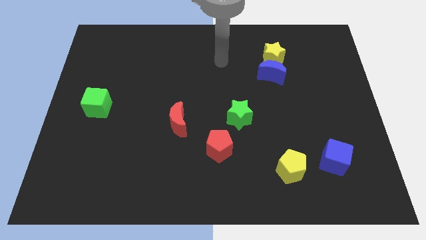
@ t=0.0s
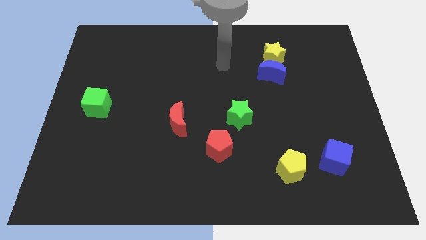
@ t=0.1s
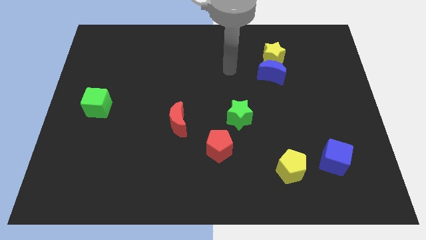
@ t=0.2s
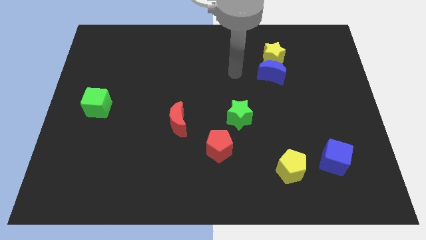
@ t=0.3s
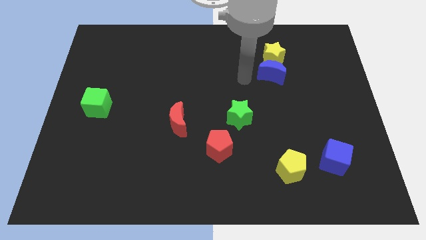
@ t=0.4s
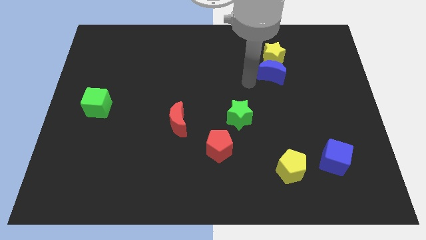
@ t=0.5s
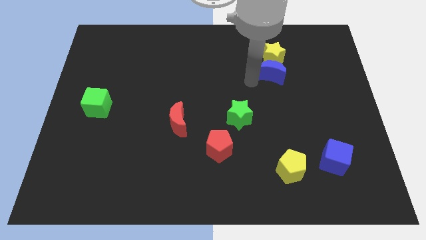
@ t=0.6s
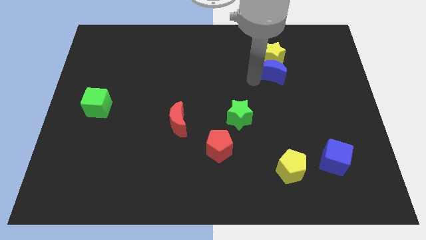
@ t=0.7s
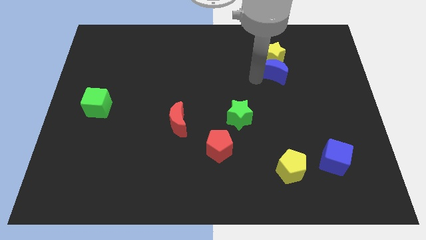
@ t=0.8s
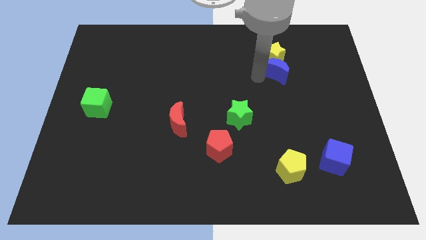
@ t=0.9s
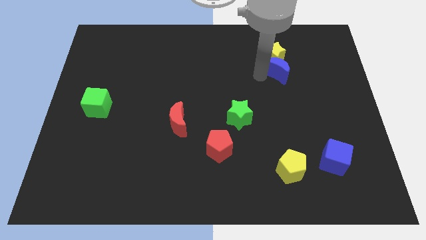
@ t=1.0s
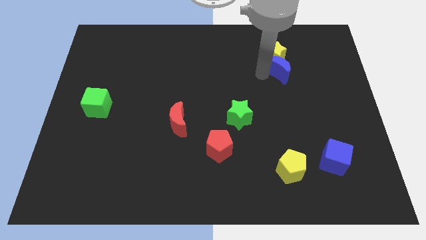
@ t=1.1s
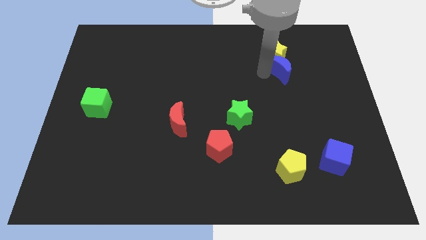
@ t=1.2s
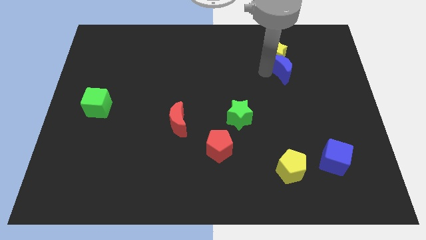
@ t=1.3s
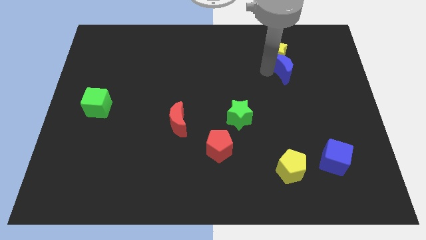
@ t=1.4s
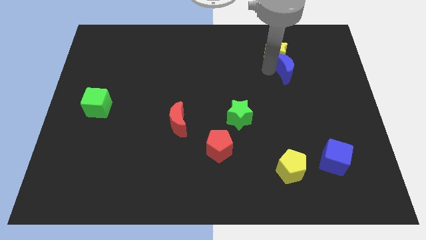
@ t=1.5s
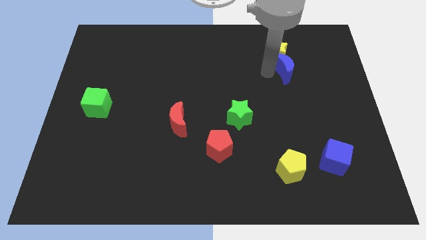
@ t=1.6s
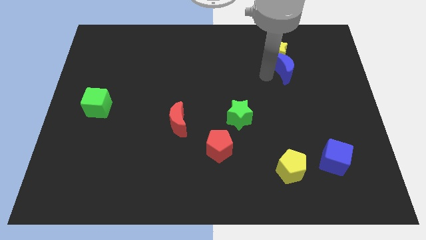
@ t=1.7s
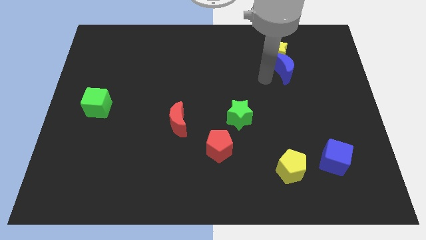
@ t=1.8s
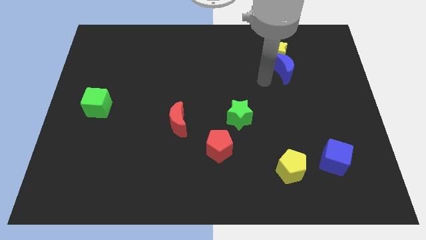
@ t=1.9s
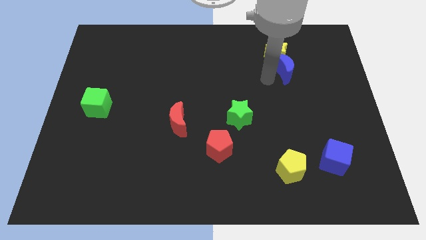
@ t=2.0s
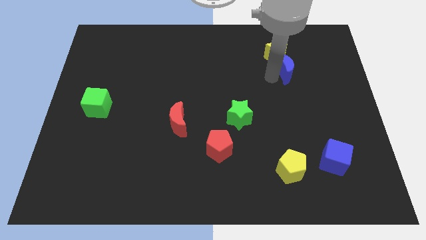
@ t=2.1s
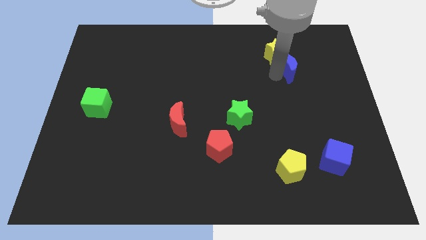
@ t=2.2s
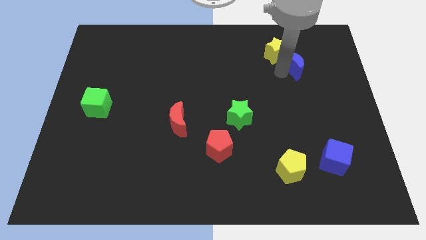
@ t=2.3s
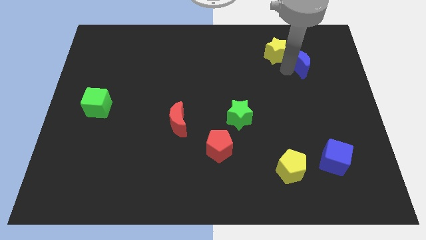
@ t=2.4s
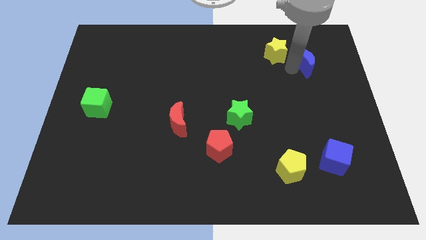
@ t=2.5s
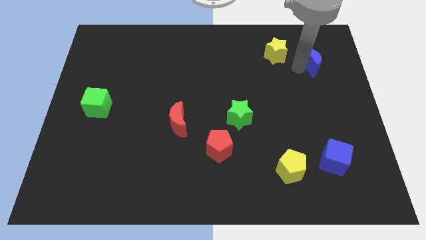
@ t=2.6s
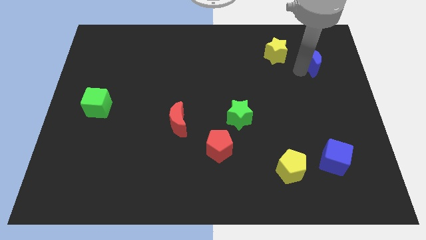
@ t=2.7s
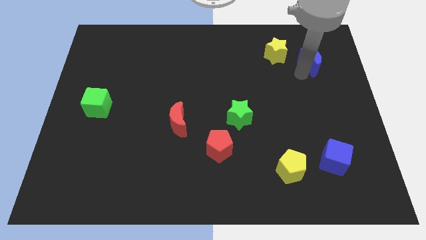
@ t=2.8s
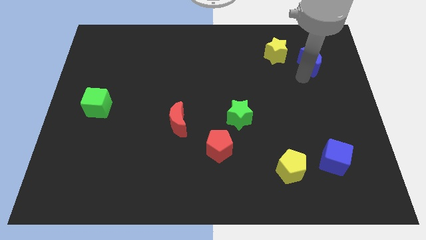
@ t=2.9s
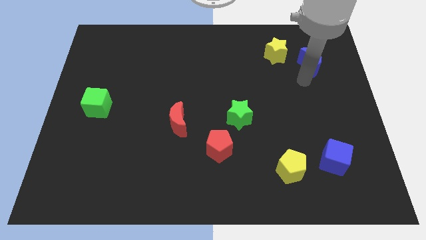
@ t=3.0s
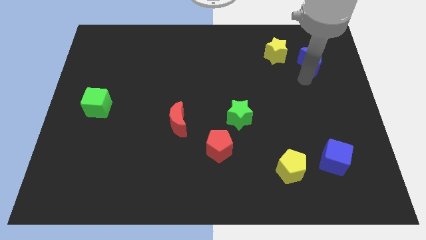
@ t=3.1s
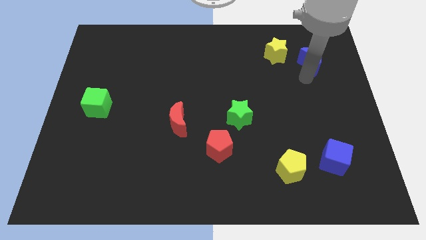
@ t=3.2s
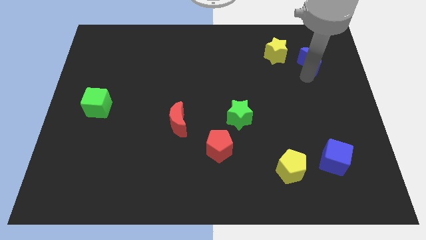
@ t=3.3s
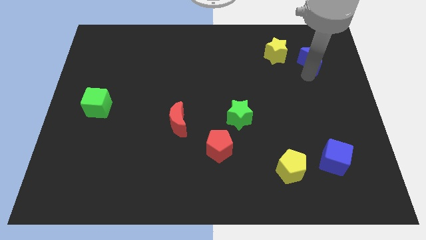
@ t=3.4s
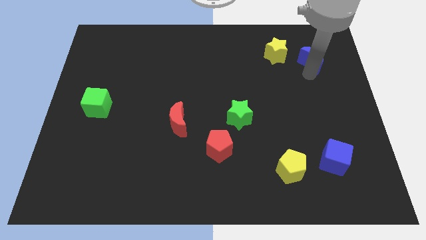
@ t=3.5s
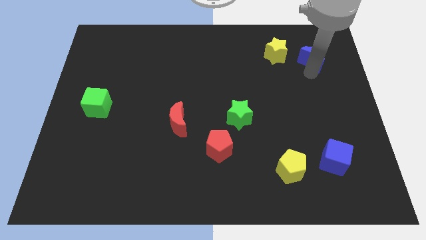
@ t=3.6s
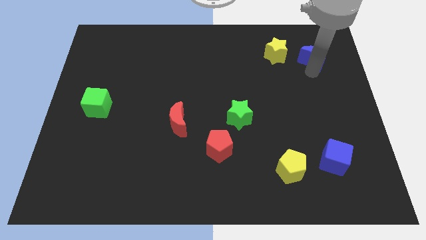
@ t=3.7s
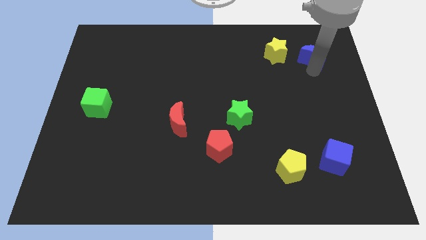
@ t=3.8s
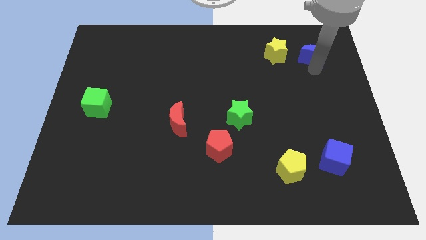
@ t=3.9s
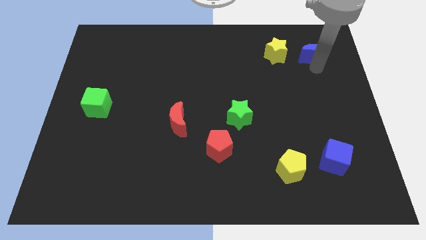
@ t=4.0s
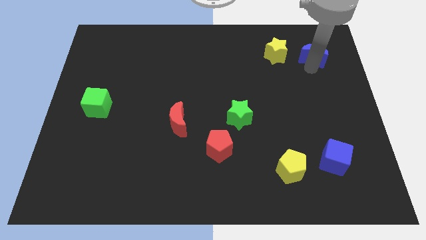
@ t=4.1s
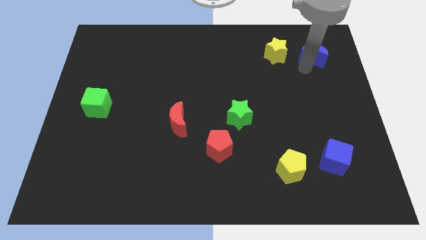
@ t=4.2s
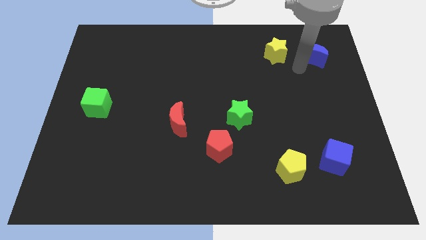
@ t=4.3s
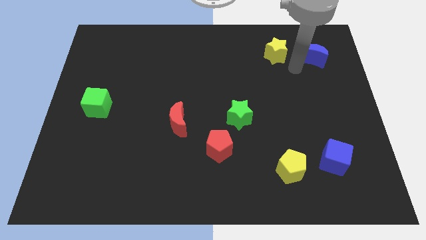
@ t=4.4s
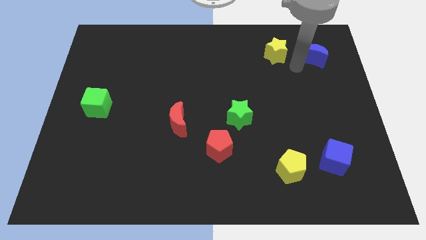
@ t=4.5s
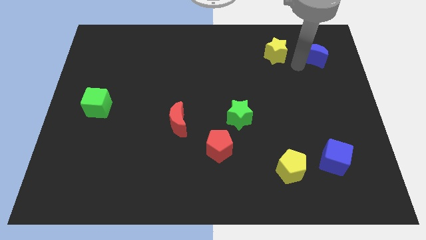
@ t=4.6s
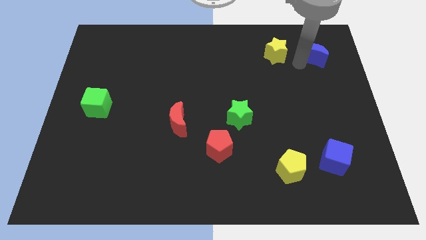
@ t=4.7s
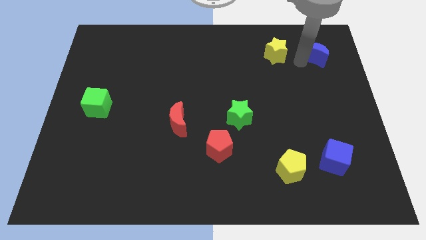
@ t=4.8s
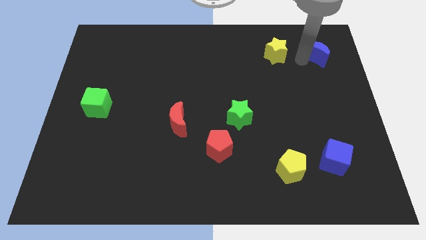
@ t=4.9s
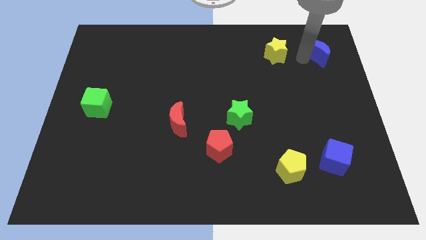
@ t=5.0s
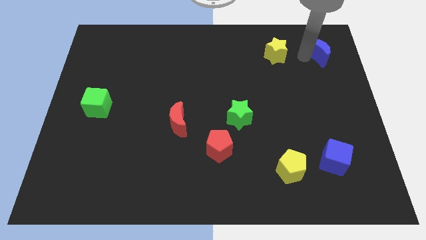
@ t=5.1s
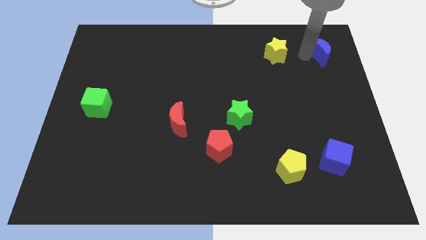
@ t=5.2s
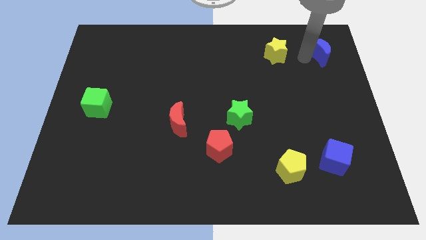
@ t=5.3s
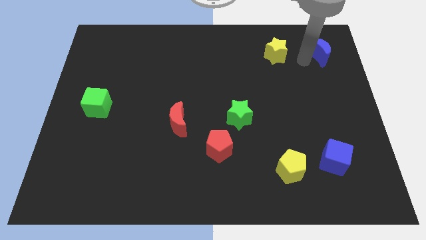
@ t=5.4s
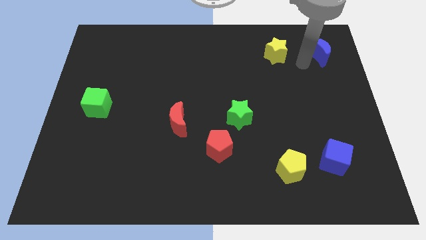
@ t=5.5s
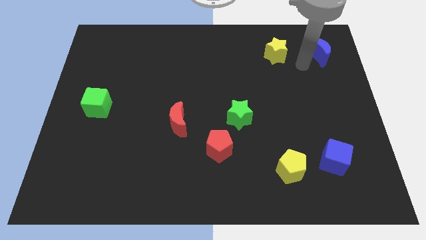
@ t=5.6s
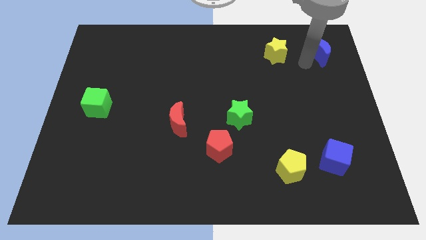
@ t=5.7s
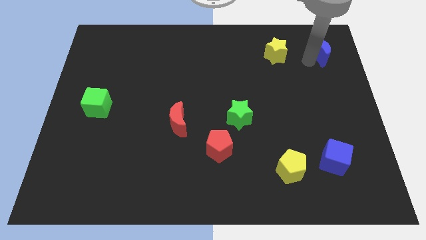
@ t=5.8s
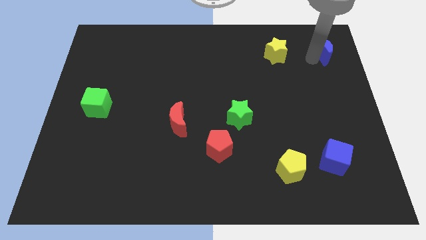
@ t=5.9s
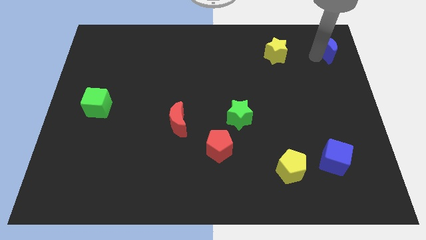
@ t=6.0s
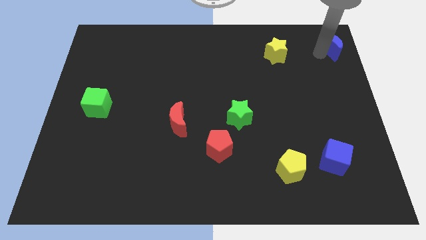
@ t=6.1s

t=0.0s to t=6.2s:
push the blue moon to the top right of the board

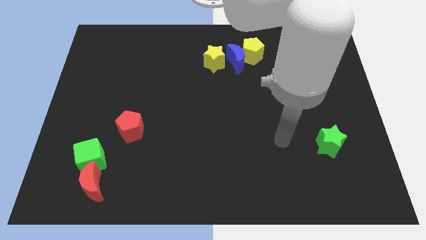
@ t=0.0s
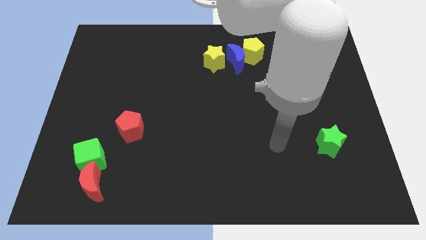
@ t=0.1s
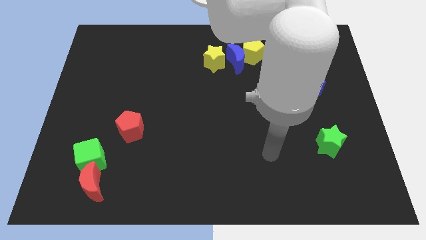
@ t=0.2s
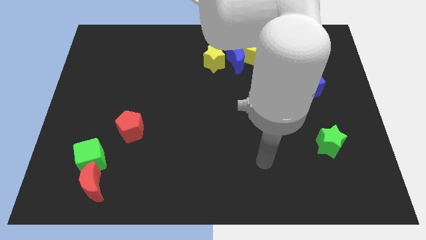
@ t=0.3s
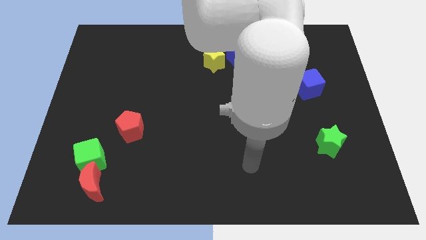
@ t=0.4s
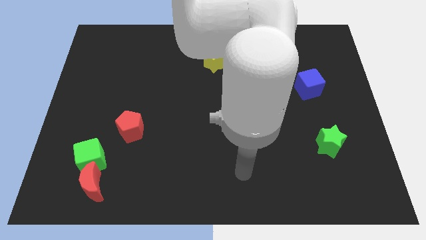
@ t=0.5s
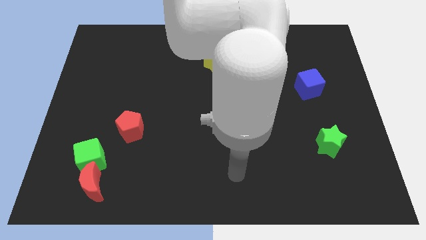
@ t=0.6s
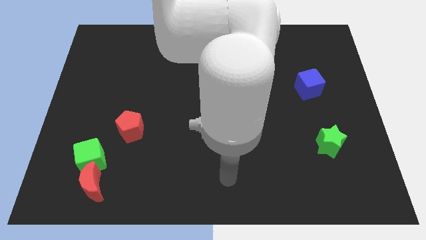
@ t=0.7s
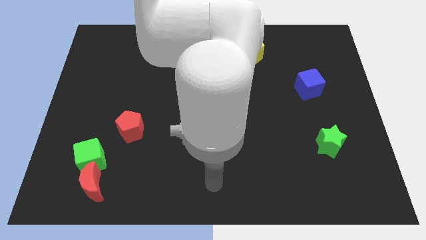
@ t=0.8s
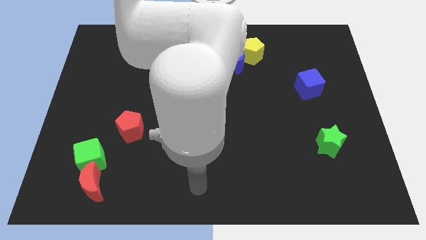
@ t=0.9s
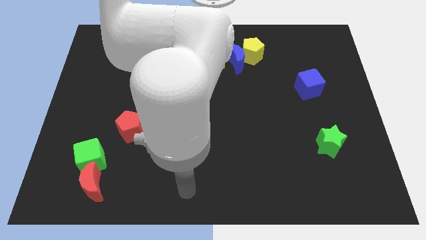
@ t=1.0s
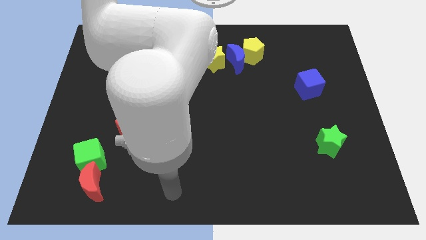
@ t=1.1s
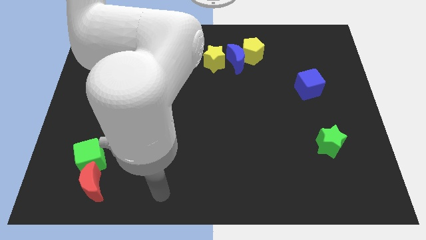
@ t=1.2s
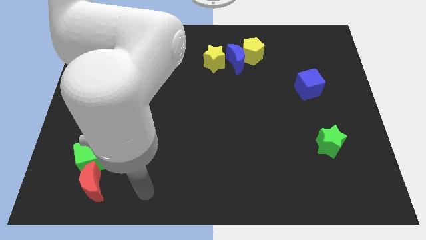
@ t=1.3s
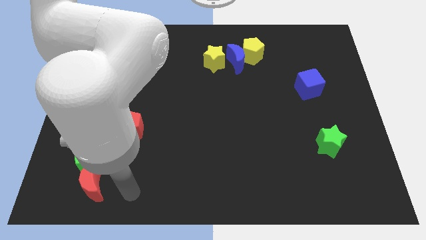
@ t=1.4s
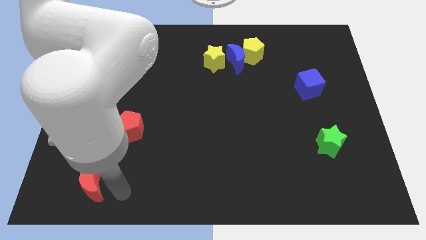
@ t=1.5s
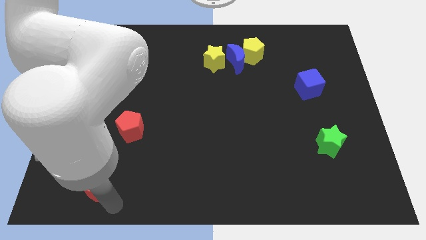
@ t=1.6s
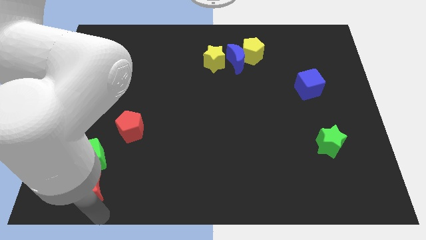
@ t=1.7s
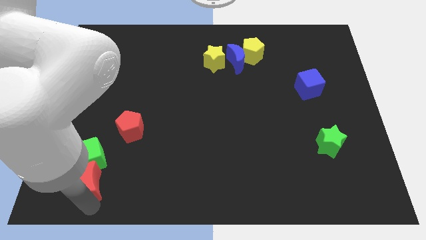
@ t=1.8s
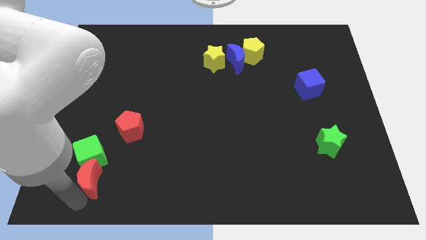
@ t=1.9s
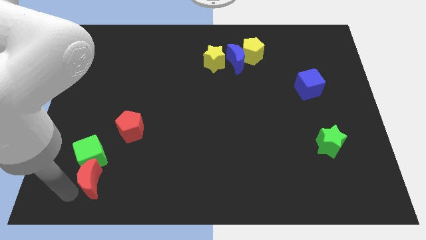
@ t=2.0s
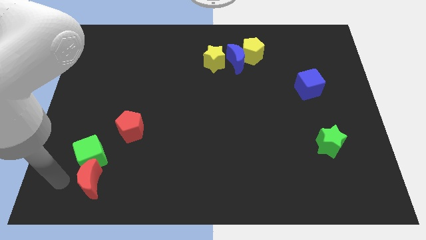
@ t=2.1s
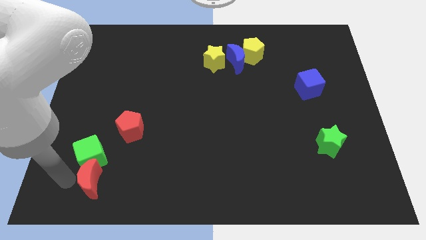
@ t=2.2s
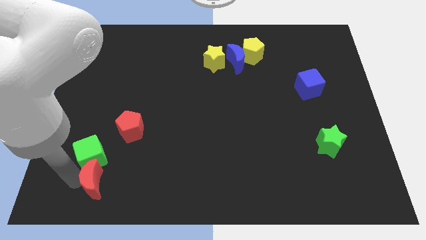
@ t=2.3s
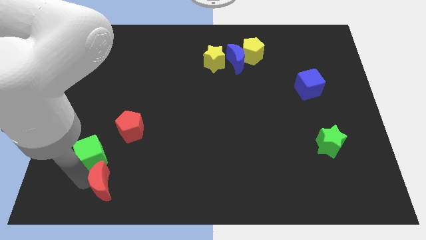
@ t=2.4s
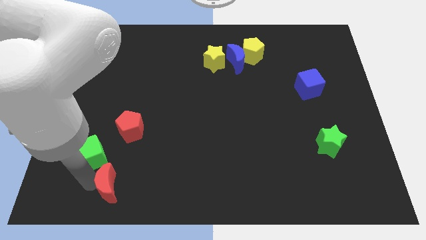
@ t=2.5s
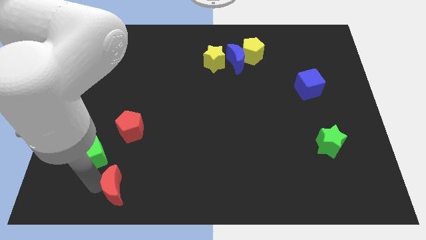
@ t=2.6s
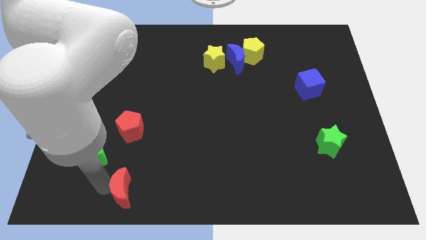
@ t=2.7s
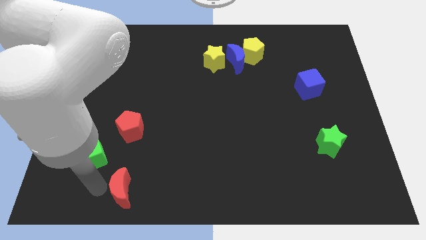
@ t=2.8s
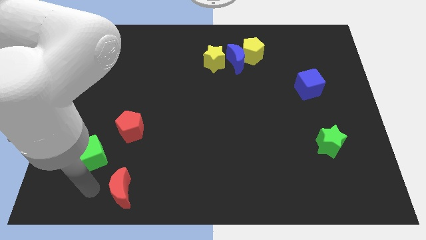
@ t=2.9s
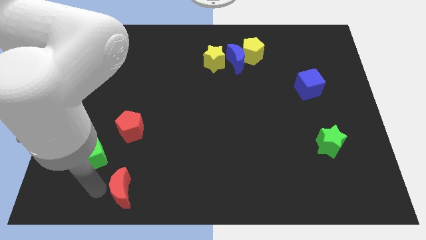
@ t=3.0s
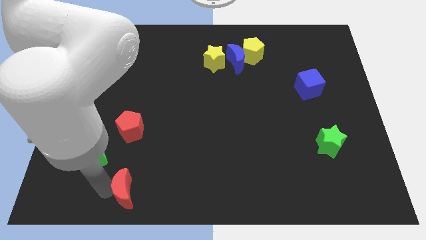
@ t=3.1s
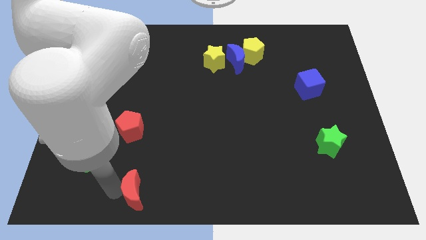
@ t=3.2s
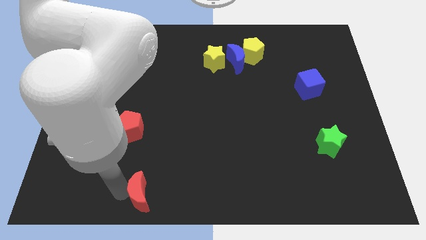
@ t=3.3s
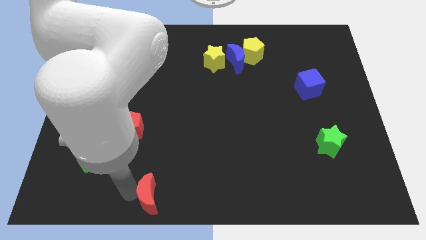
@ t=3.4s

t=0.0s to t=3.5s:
push the red moon to the bottom
